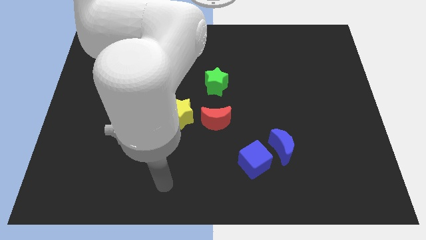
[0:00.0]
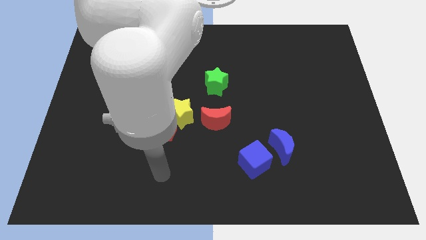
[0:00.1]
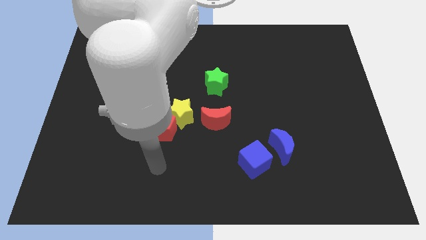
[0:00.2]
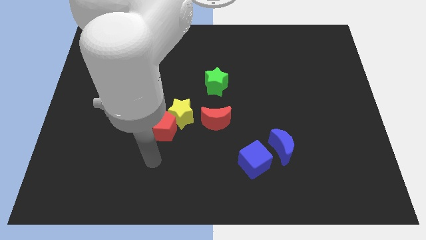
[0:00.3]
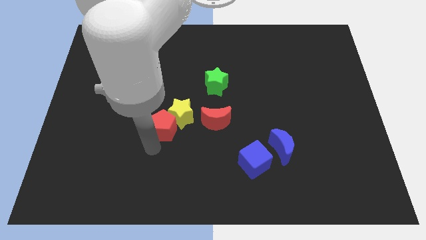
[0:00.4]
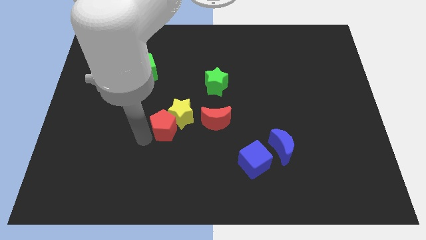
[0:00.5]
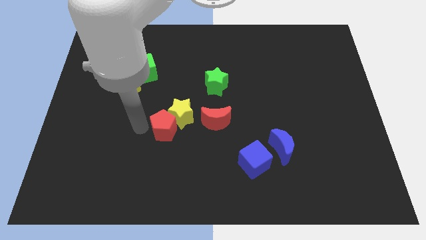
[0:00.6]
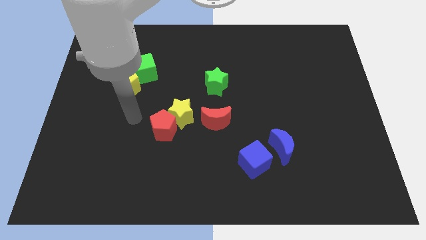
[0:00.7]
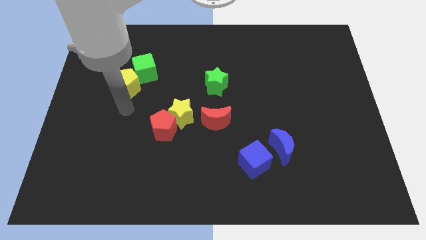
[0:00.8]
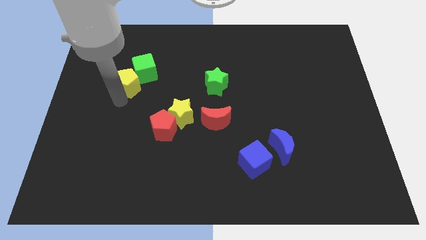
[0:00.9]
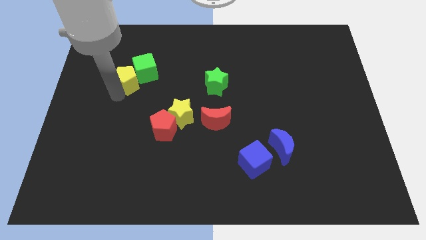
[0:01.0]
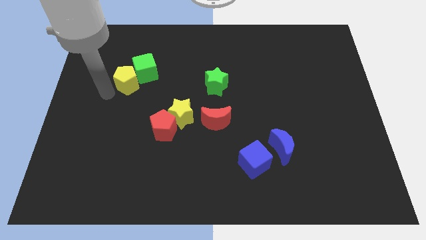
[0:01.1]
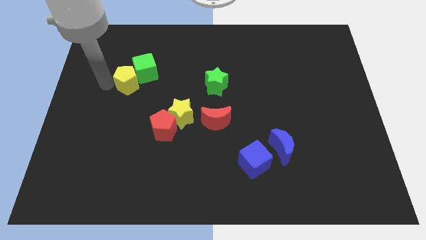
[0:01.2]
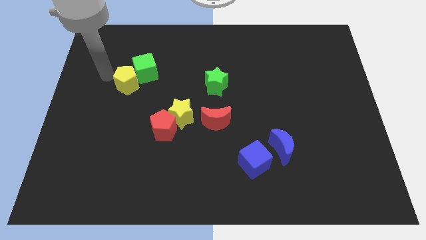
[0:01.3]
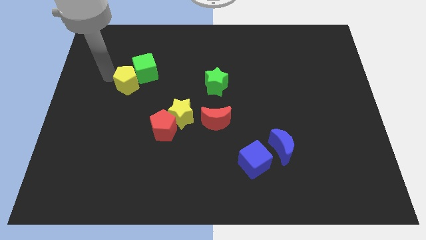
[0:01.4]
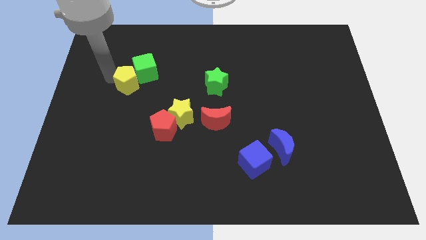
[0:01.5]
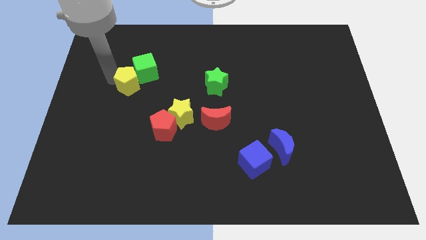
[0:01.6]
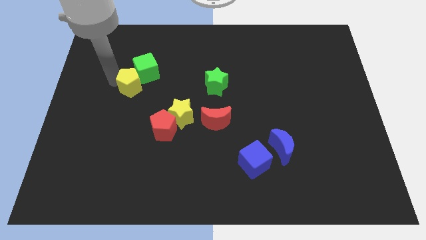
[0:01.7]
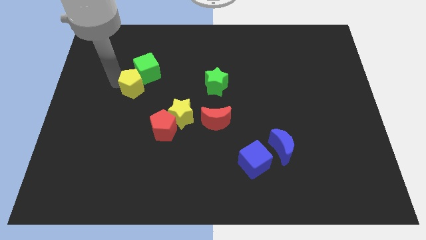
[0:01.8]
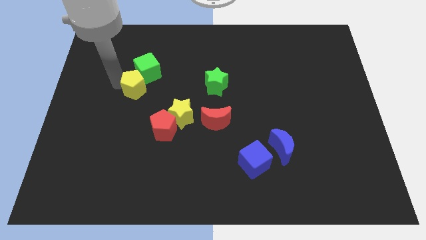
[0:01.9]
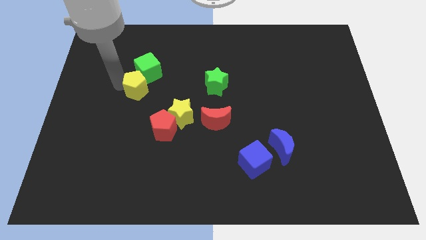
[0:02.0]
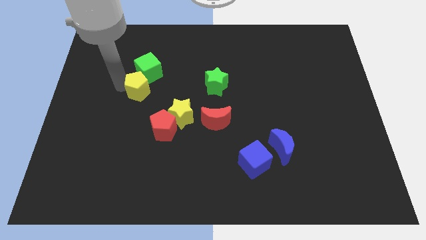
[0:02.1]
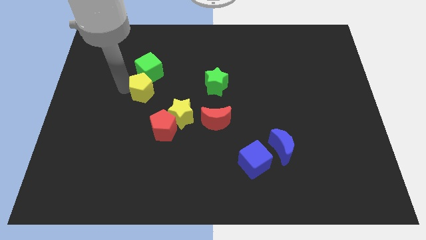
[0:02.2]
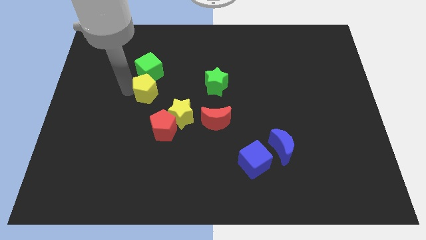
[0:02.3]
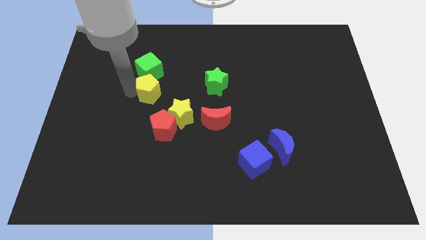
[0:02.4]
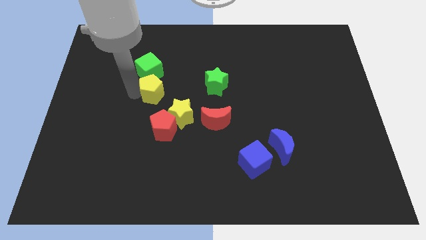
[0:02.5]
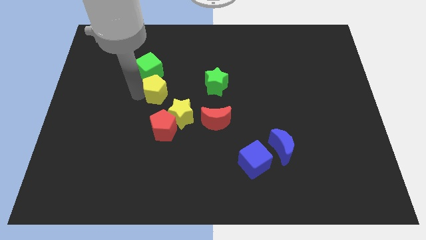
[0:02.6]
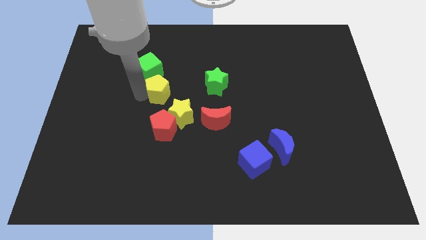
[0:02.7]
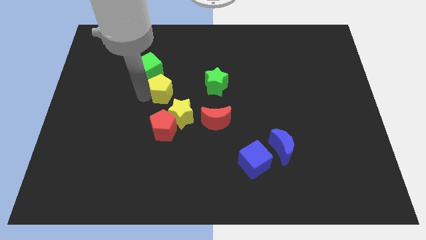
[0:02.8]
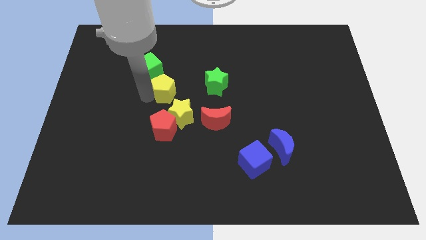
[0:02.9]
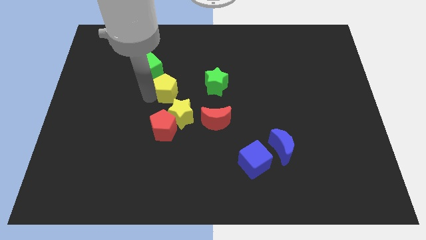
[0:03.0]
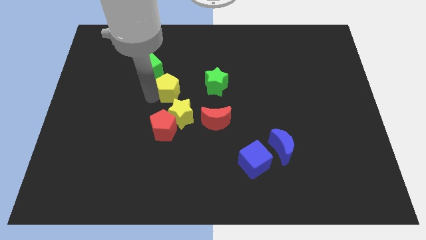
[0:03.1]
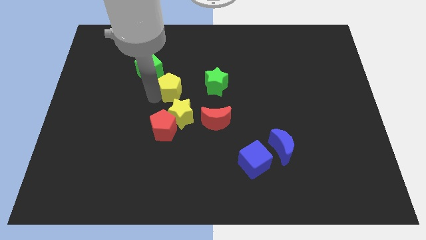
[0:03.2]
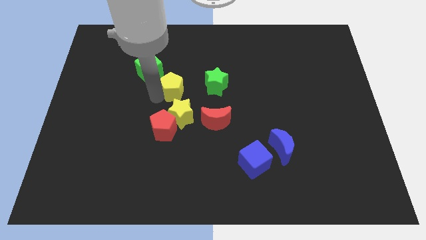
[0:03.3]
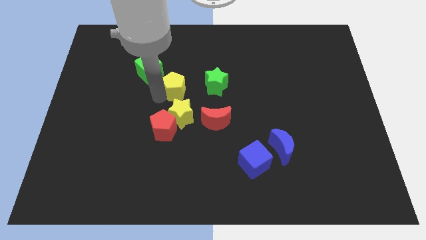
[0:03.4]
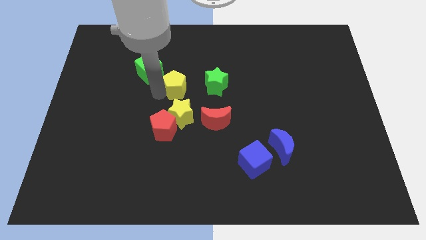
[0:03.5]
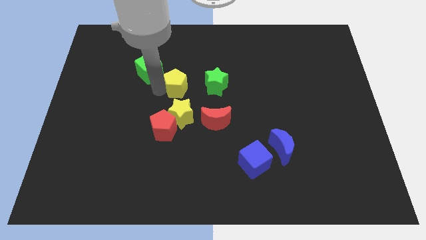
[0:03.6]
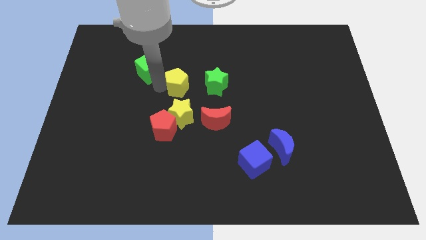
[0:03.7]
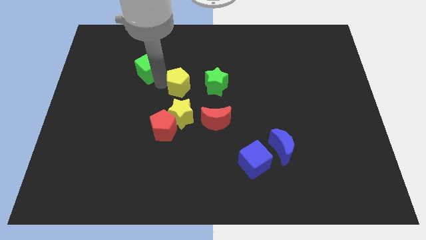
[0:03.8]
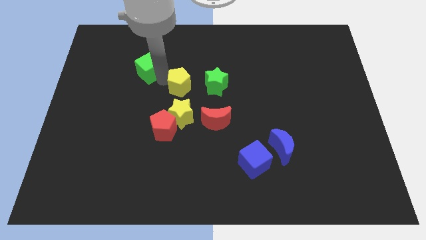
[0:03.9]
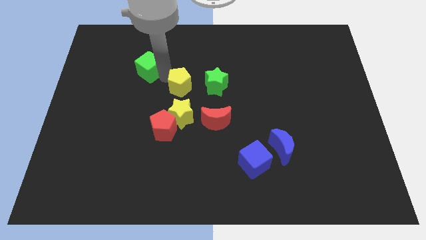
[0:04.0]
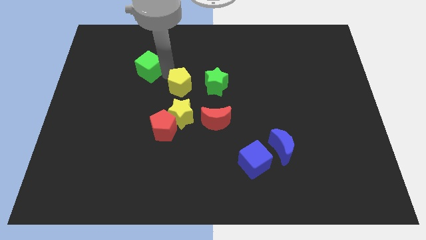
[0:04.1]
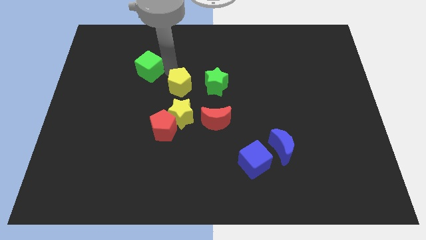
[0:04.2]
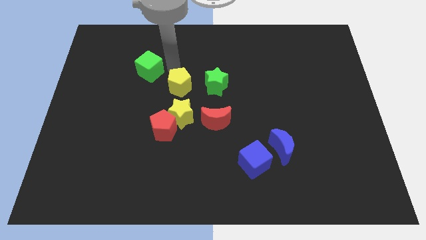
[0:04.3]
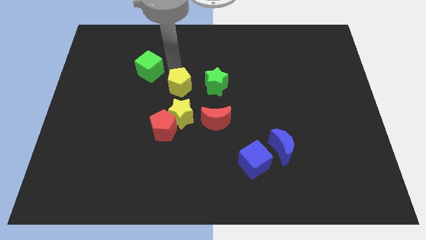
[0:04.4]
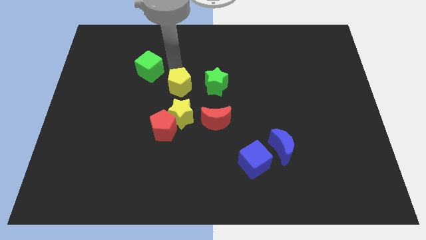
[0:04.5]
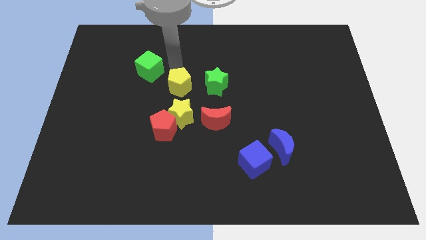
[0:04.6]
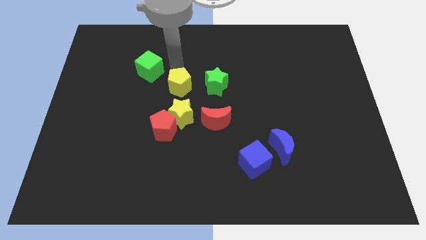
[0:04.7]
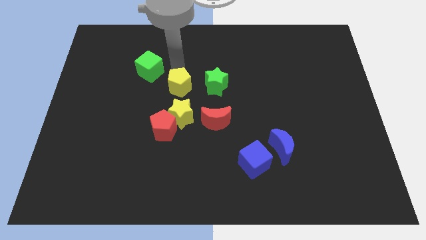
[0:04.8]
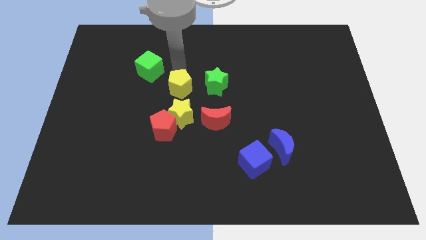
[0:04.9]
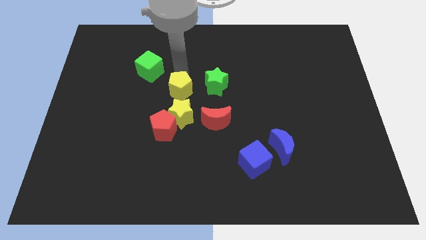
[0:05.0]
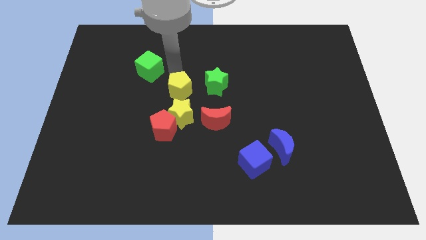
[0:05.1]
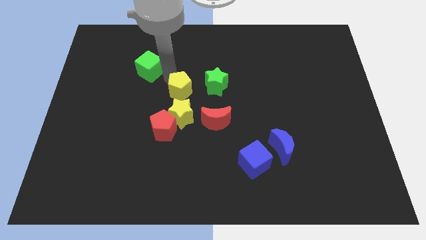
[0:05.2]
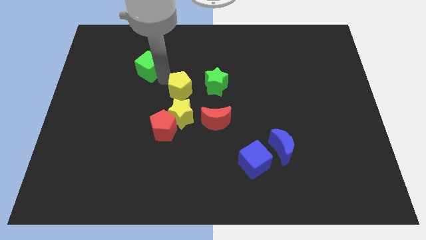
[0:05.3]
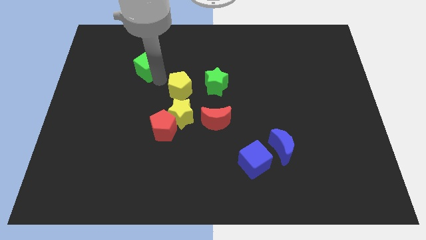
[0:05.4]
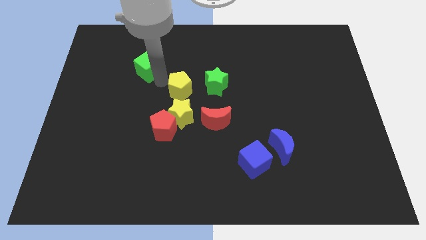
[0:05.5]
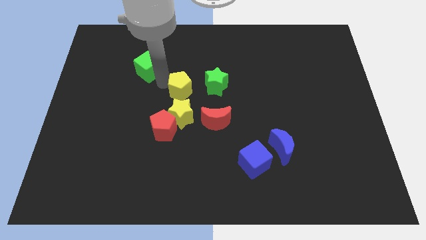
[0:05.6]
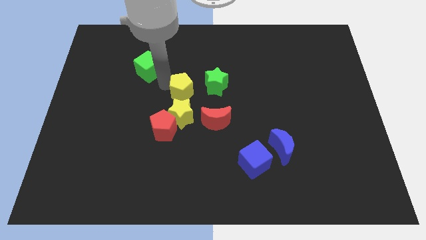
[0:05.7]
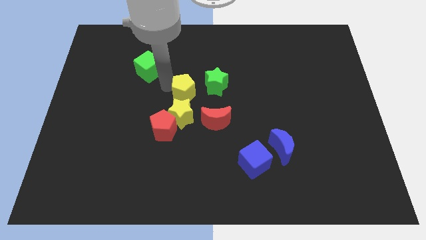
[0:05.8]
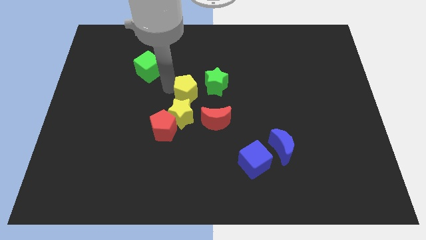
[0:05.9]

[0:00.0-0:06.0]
put the yellow pentagon to the top right of the yellow star

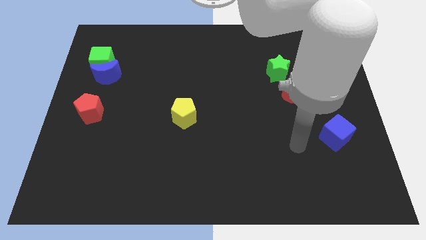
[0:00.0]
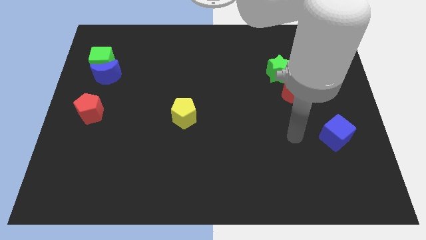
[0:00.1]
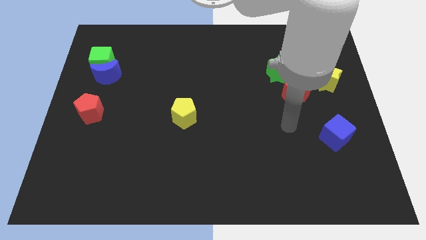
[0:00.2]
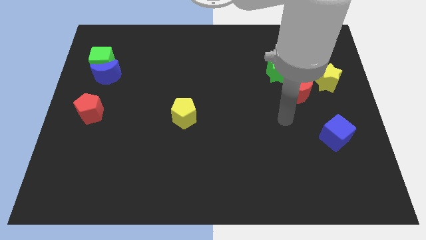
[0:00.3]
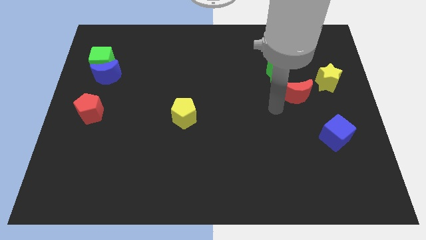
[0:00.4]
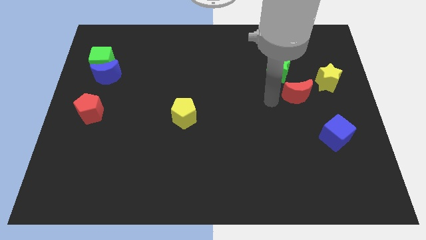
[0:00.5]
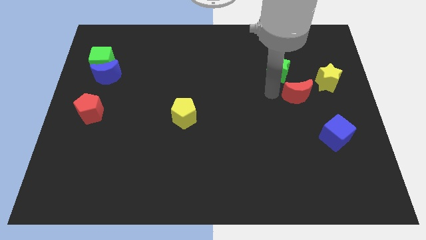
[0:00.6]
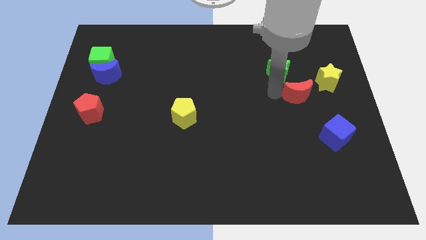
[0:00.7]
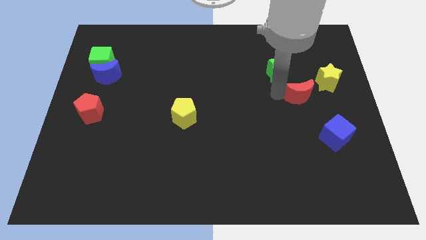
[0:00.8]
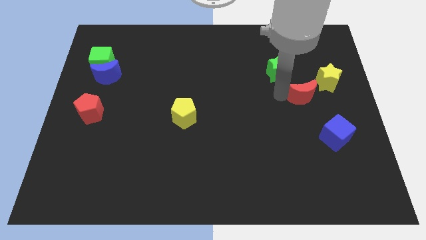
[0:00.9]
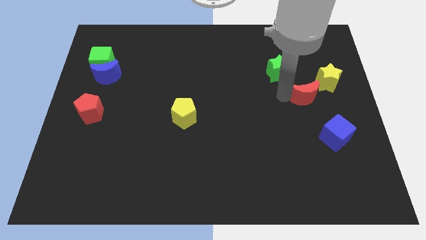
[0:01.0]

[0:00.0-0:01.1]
push the red moon to the top side of the blue cube
